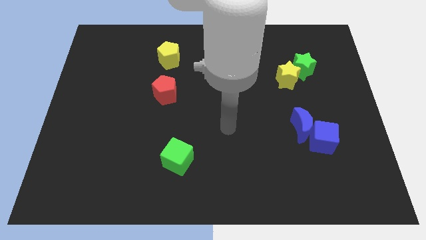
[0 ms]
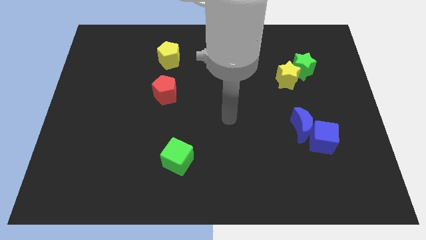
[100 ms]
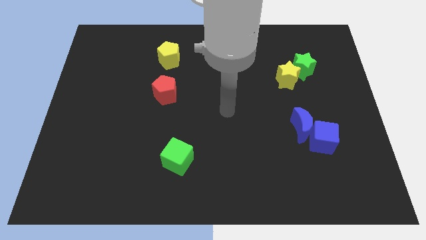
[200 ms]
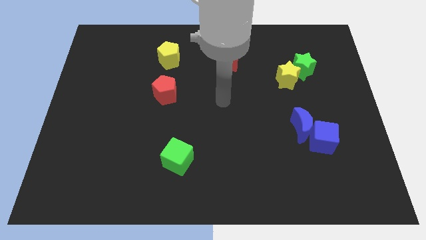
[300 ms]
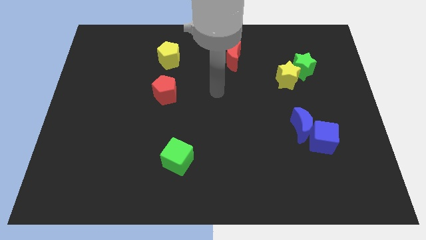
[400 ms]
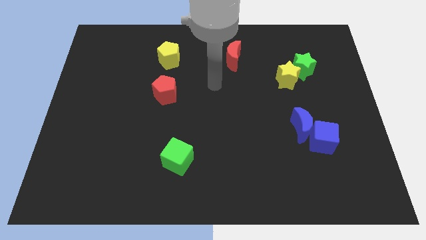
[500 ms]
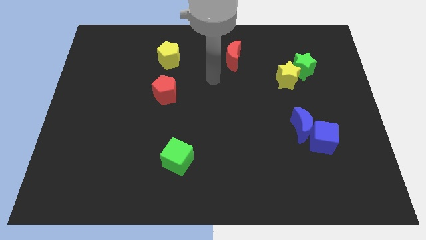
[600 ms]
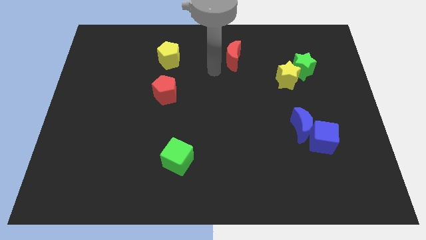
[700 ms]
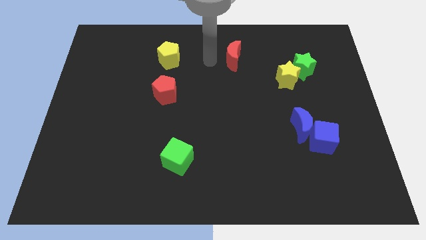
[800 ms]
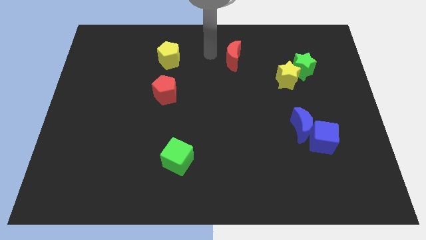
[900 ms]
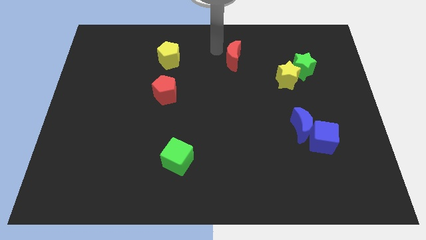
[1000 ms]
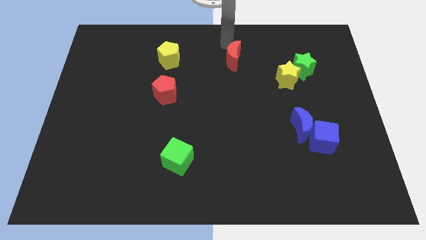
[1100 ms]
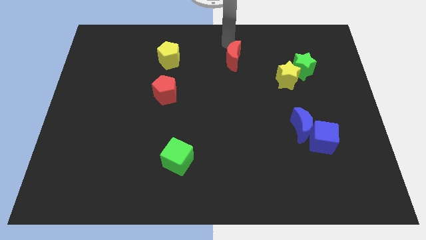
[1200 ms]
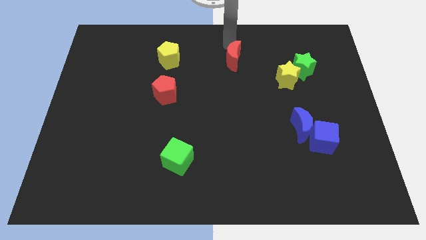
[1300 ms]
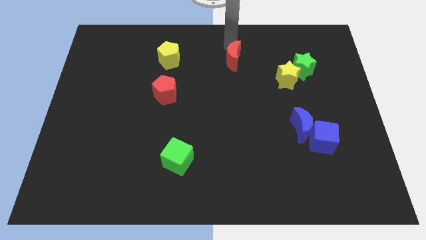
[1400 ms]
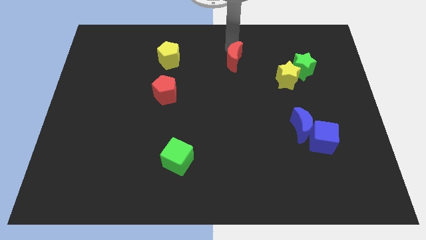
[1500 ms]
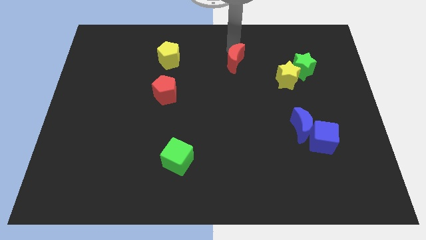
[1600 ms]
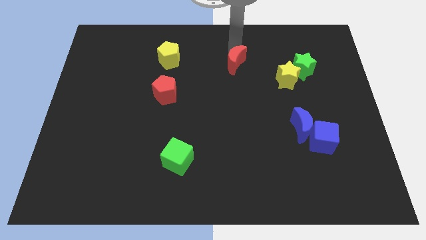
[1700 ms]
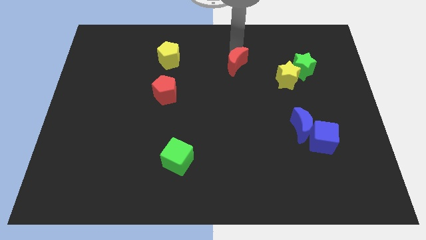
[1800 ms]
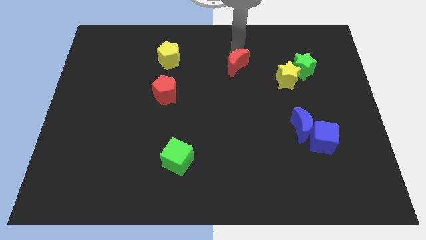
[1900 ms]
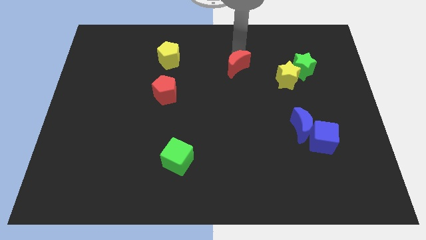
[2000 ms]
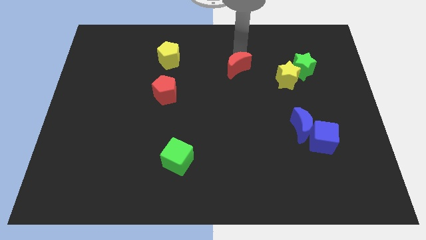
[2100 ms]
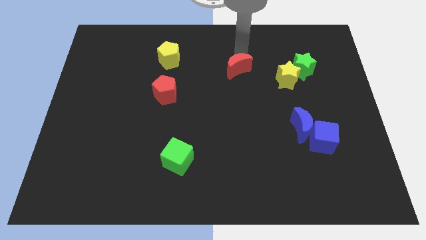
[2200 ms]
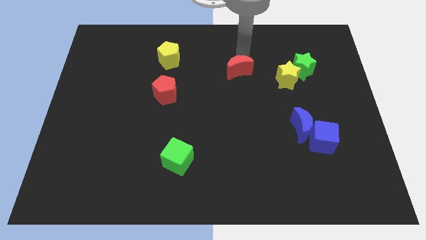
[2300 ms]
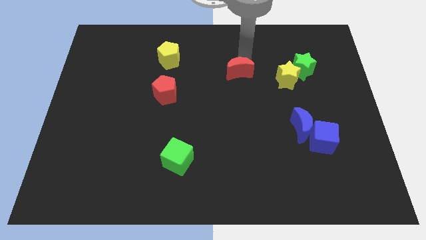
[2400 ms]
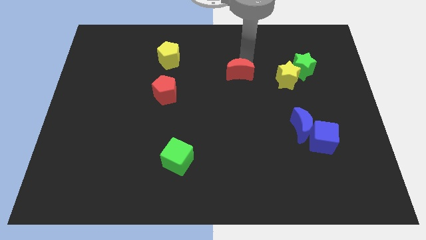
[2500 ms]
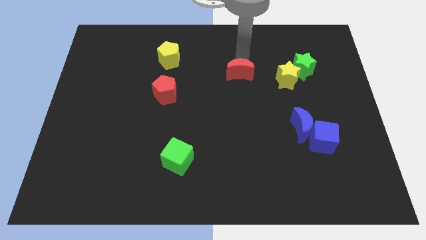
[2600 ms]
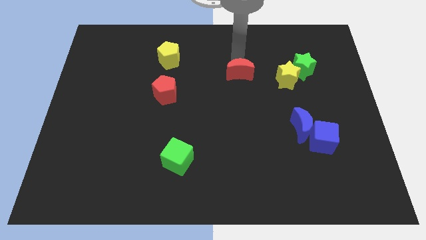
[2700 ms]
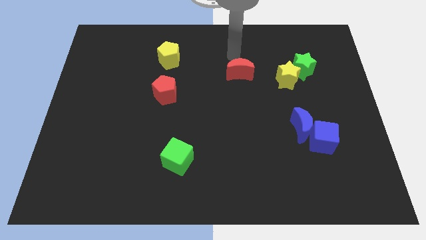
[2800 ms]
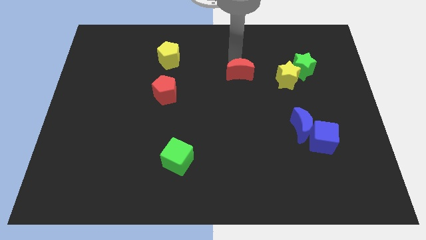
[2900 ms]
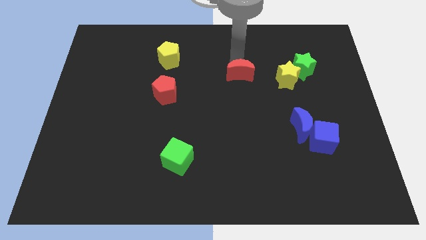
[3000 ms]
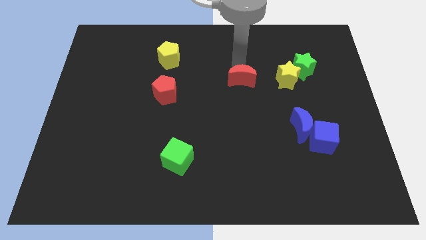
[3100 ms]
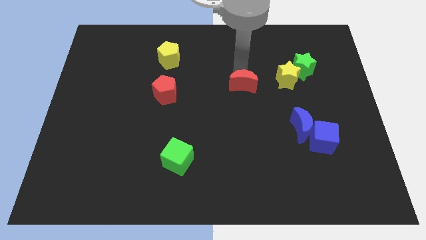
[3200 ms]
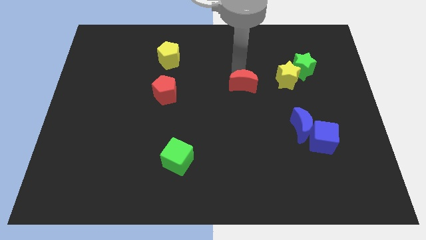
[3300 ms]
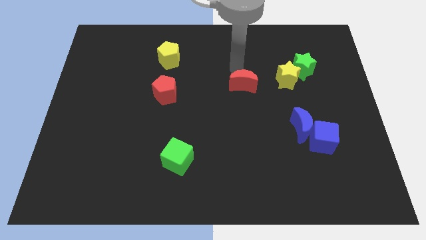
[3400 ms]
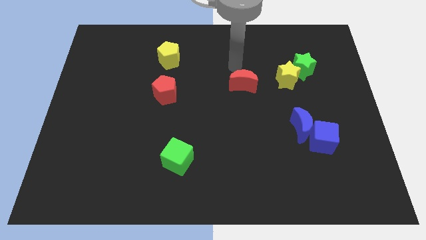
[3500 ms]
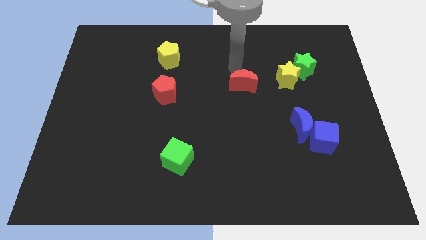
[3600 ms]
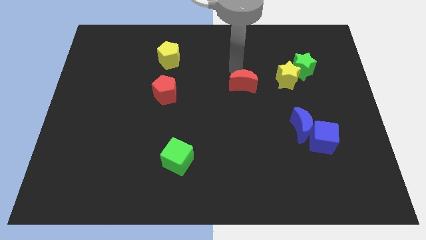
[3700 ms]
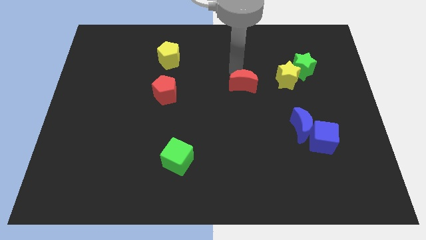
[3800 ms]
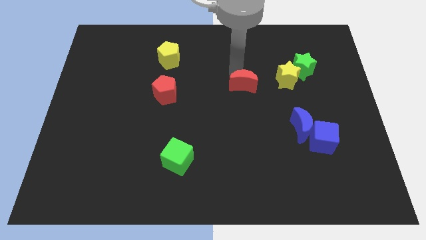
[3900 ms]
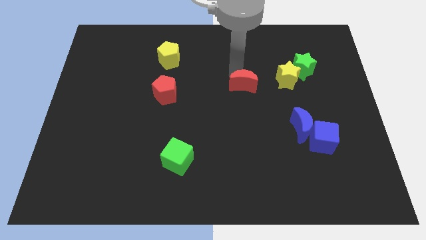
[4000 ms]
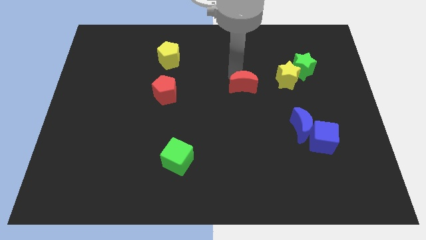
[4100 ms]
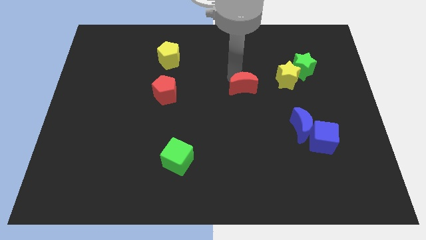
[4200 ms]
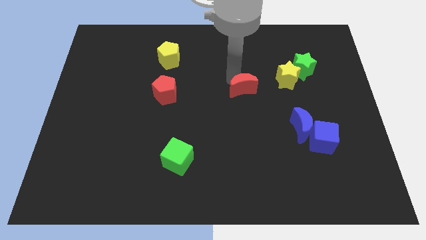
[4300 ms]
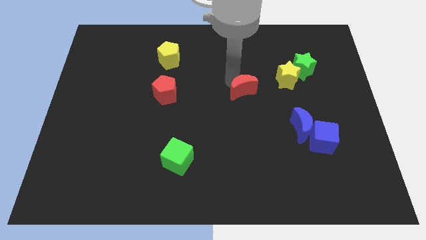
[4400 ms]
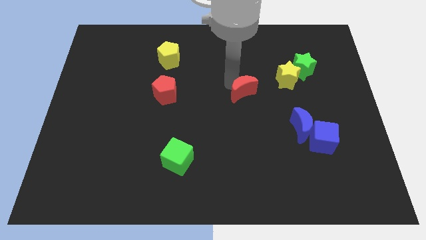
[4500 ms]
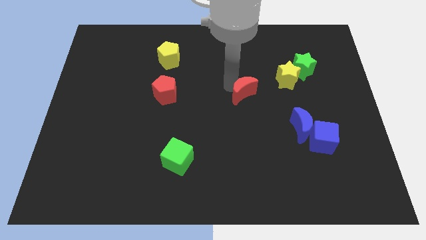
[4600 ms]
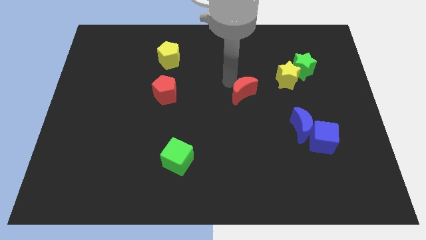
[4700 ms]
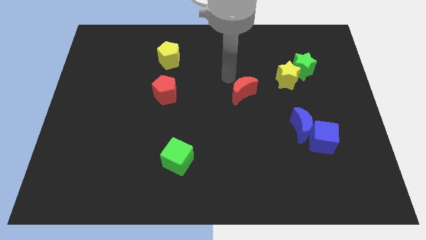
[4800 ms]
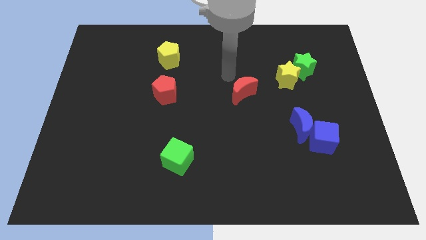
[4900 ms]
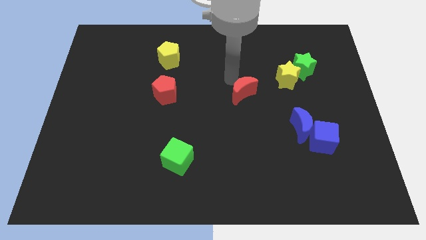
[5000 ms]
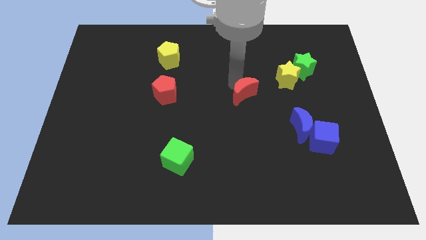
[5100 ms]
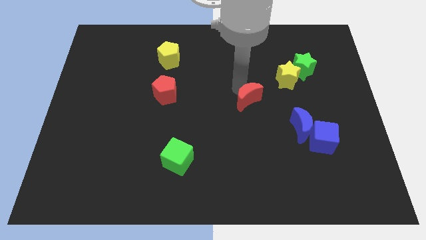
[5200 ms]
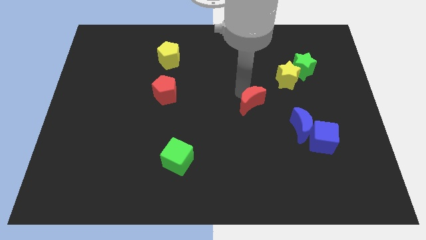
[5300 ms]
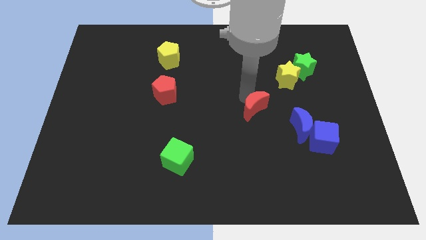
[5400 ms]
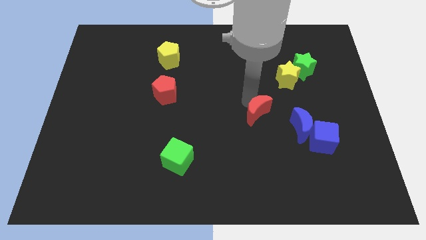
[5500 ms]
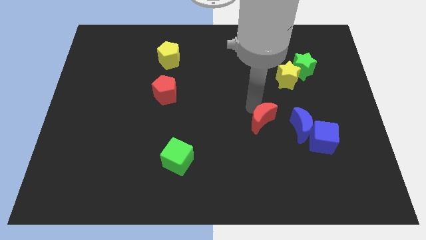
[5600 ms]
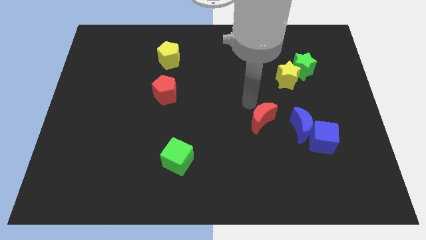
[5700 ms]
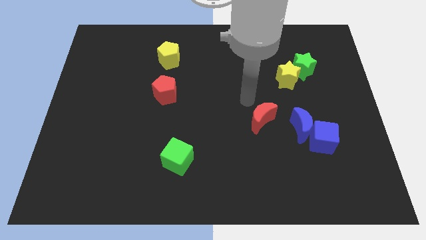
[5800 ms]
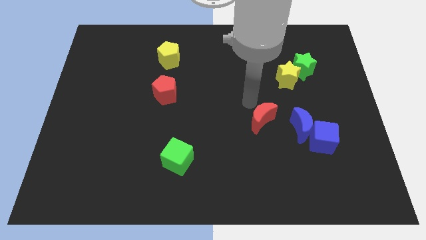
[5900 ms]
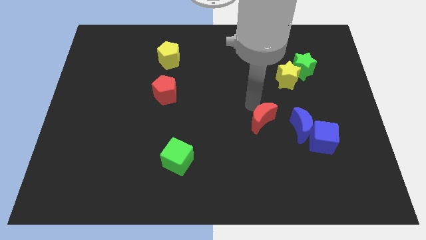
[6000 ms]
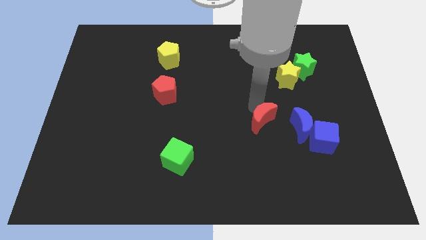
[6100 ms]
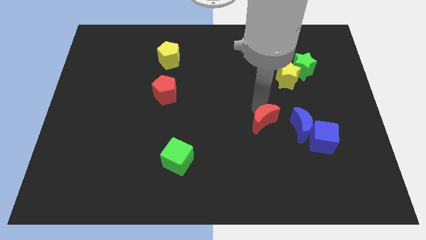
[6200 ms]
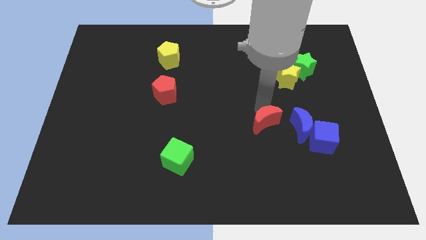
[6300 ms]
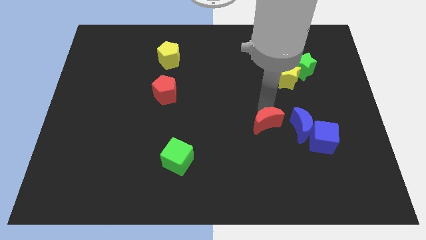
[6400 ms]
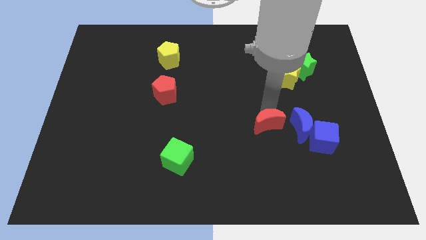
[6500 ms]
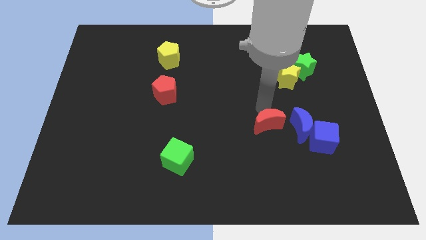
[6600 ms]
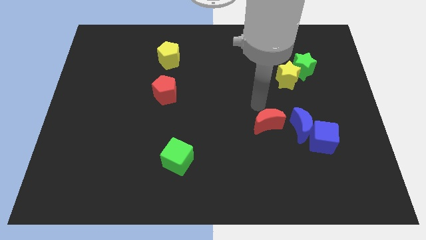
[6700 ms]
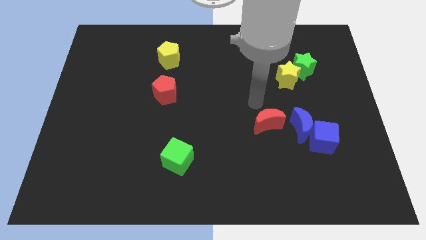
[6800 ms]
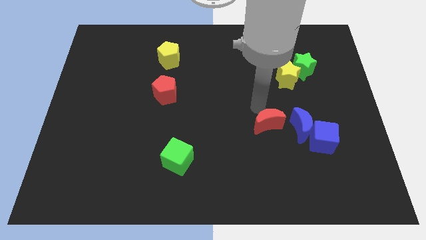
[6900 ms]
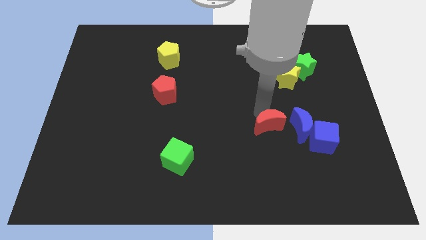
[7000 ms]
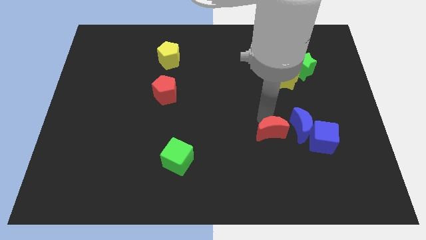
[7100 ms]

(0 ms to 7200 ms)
put the red moon to the bottom left of the blue moon
